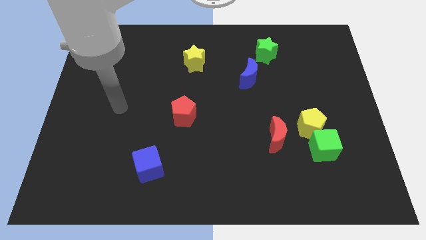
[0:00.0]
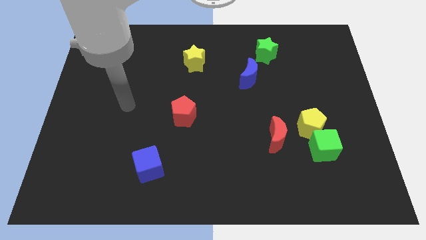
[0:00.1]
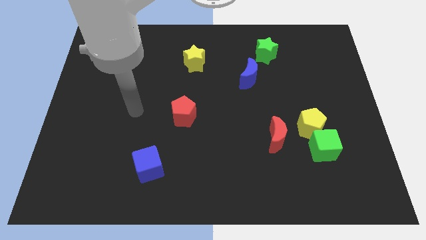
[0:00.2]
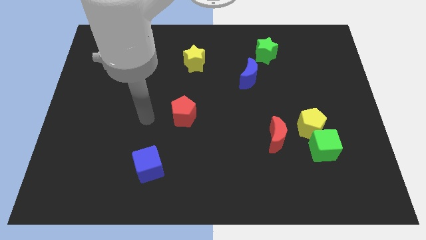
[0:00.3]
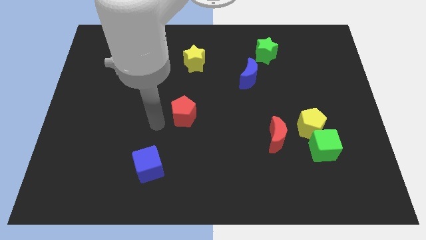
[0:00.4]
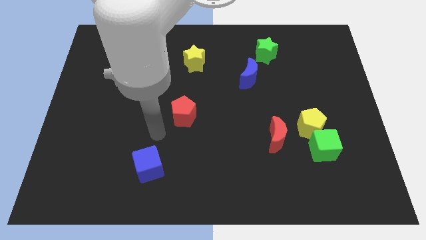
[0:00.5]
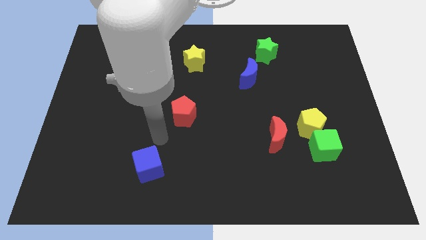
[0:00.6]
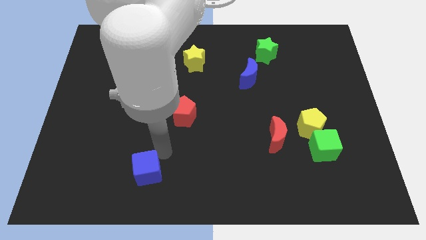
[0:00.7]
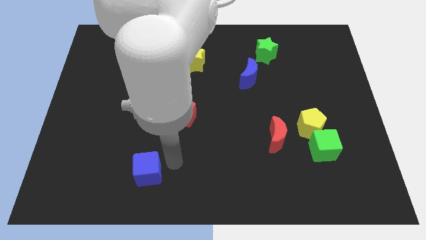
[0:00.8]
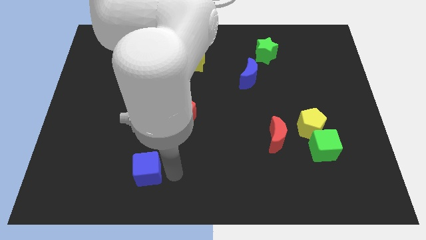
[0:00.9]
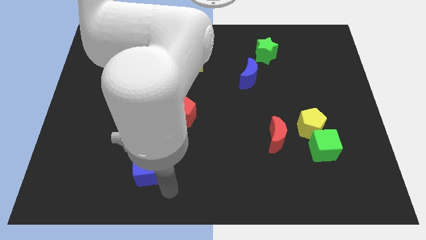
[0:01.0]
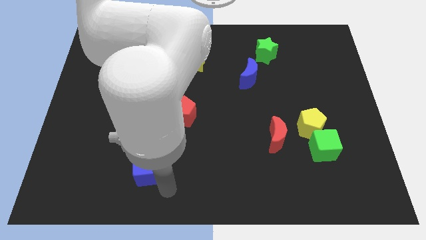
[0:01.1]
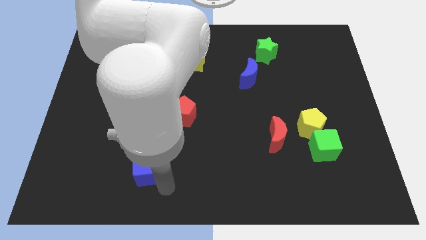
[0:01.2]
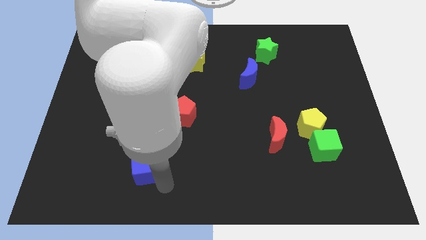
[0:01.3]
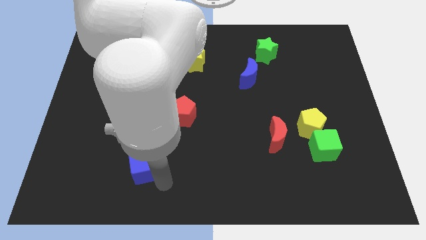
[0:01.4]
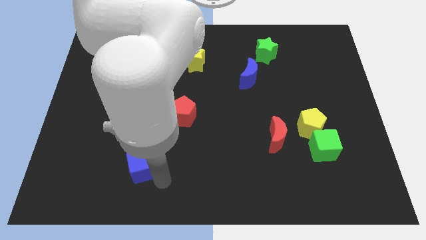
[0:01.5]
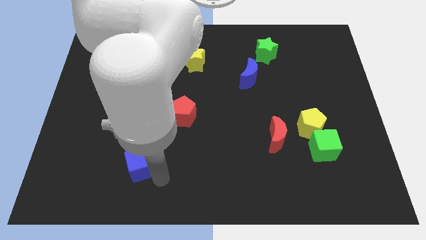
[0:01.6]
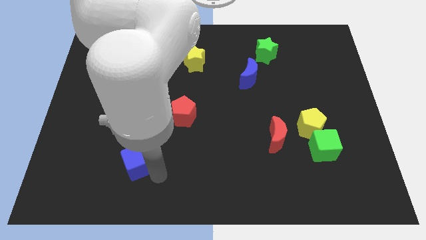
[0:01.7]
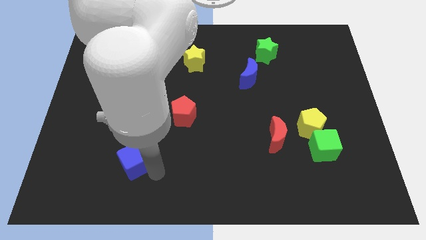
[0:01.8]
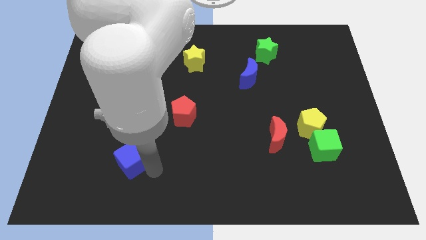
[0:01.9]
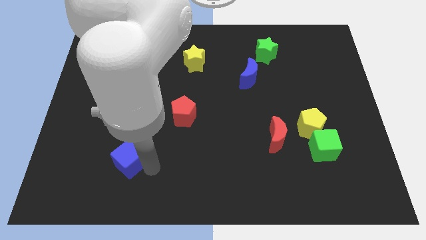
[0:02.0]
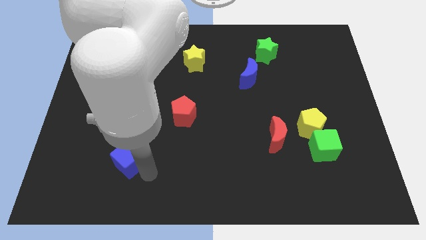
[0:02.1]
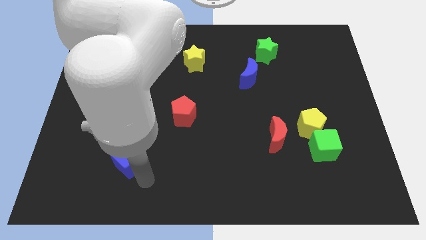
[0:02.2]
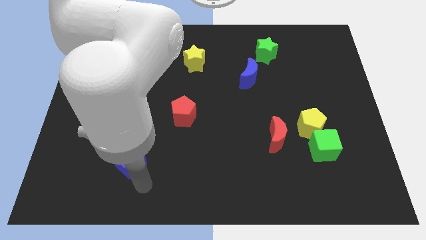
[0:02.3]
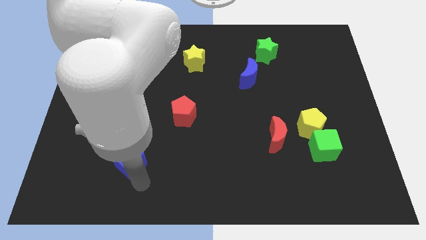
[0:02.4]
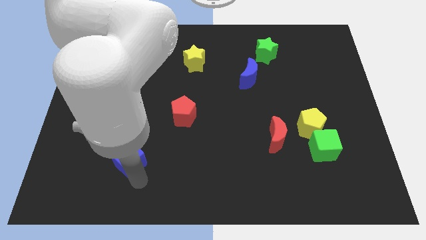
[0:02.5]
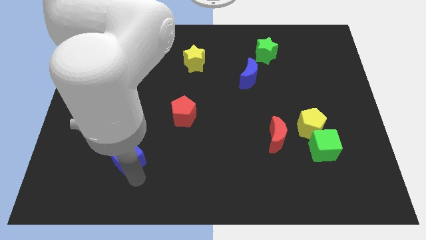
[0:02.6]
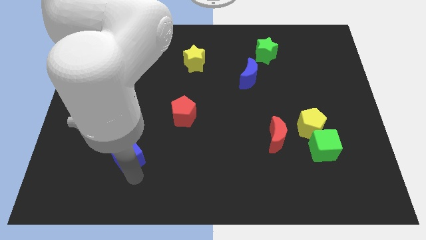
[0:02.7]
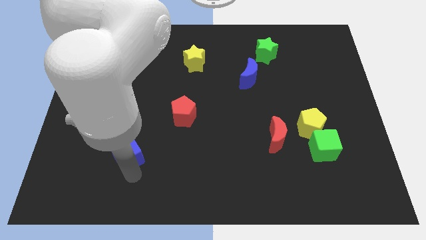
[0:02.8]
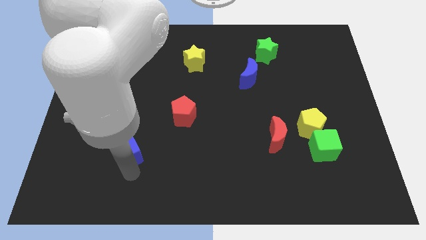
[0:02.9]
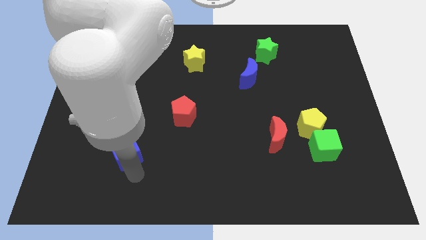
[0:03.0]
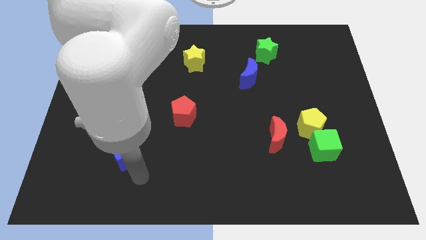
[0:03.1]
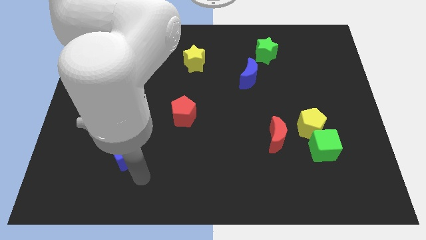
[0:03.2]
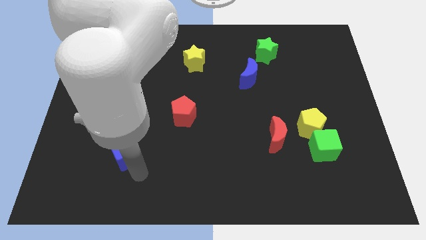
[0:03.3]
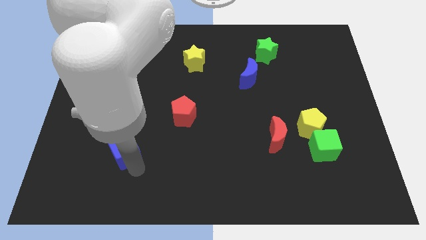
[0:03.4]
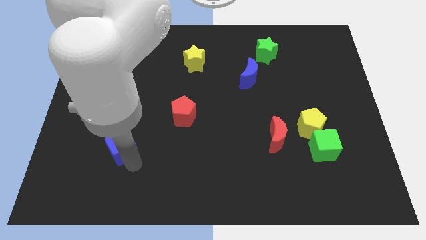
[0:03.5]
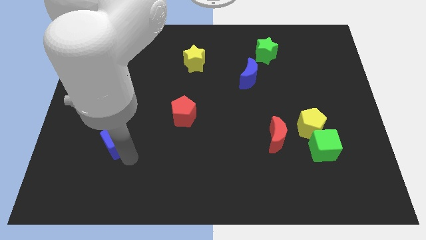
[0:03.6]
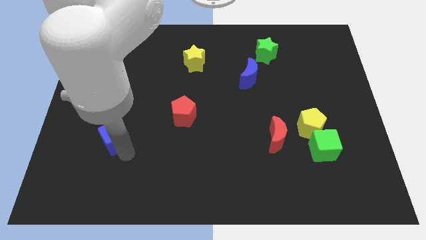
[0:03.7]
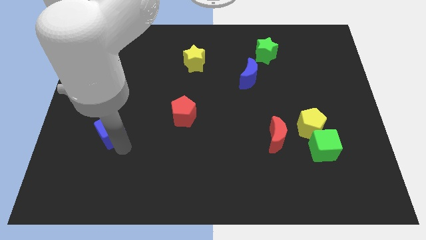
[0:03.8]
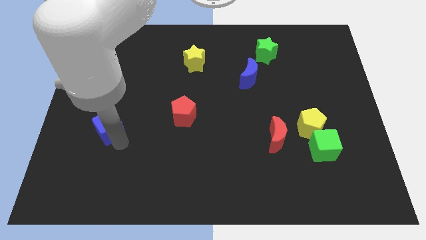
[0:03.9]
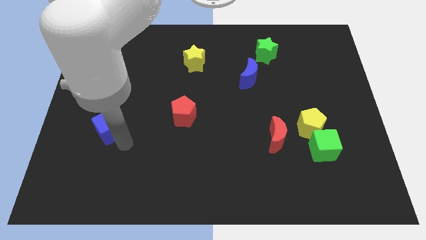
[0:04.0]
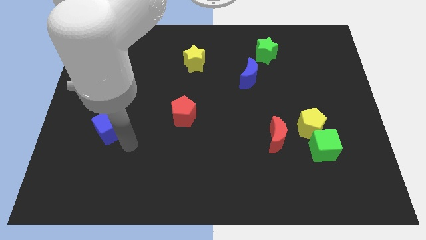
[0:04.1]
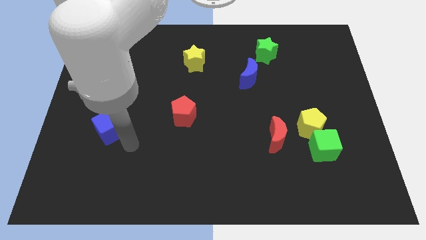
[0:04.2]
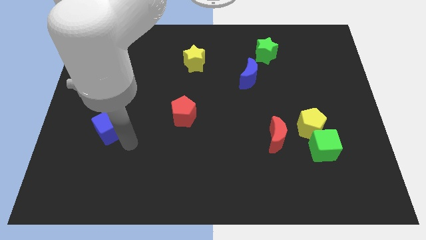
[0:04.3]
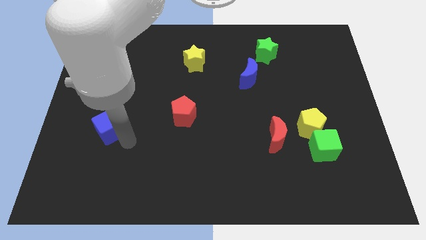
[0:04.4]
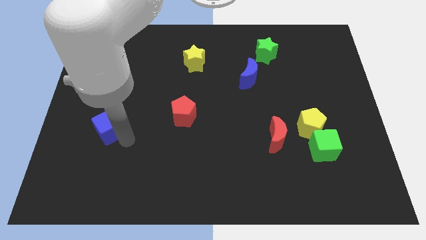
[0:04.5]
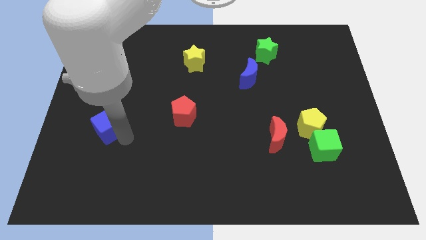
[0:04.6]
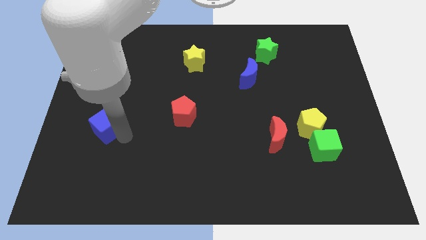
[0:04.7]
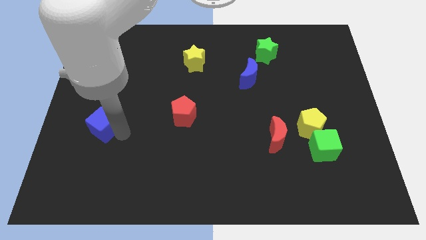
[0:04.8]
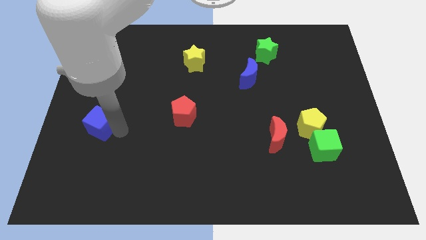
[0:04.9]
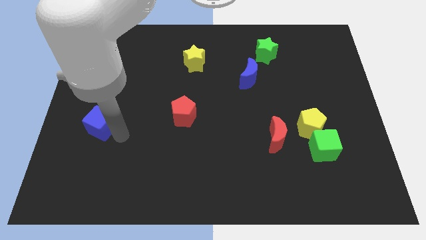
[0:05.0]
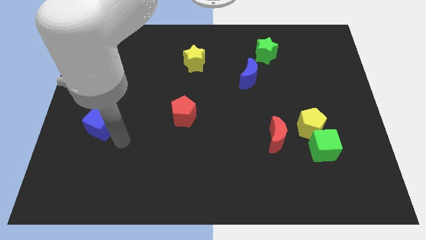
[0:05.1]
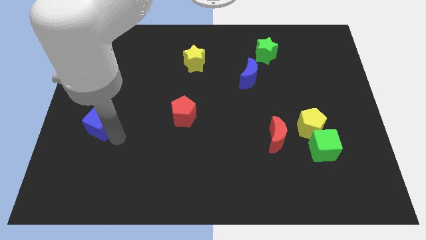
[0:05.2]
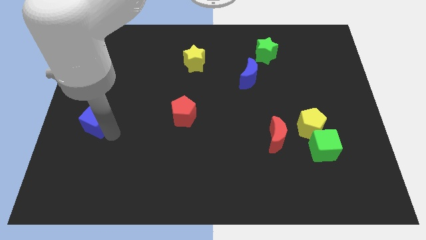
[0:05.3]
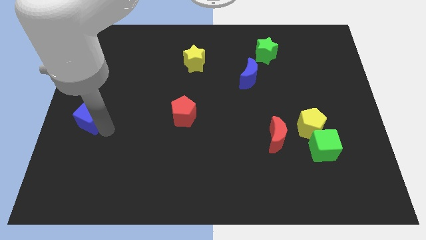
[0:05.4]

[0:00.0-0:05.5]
put the blue cube to the center left
